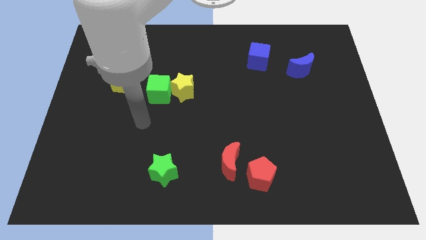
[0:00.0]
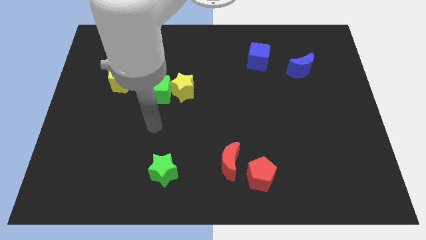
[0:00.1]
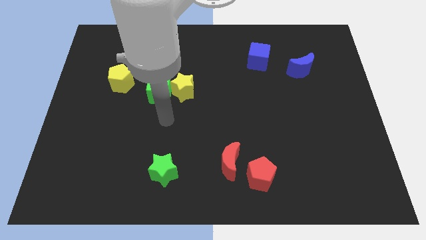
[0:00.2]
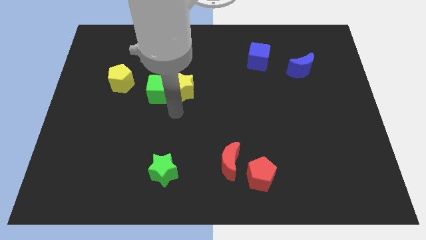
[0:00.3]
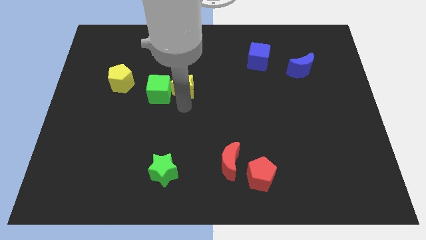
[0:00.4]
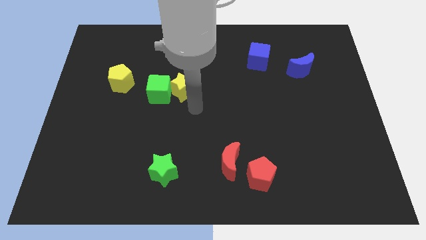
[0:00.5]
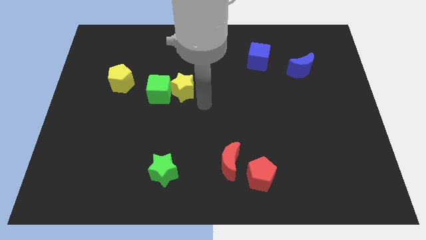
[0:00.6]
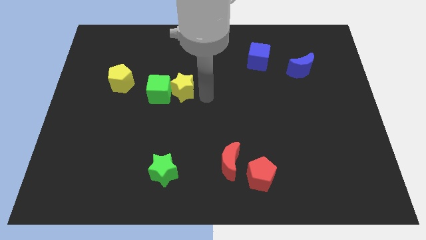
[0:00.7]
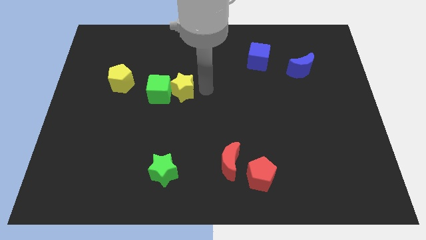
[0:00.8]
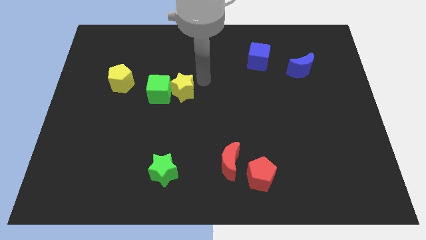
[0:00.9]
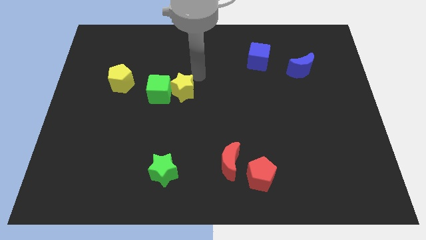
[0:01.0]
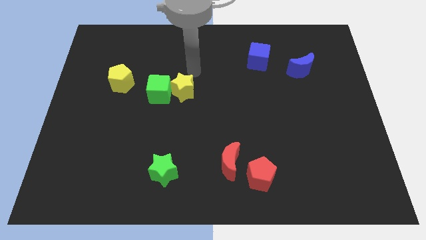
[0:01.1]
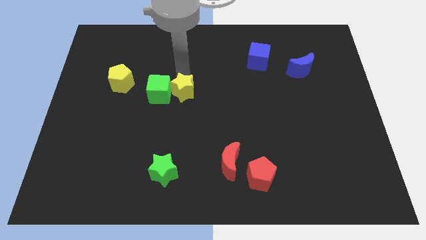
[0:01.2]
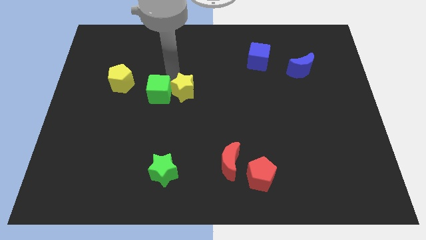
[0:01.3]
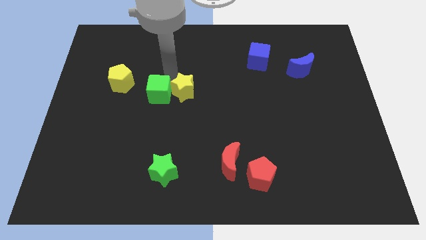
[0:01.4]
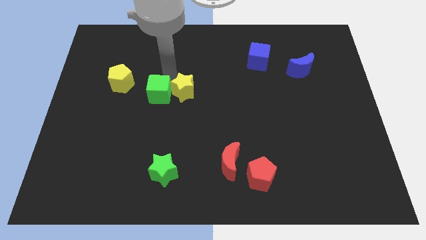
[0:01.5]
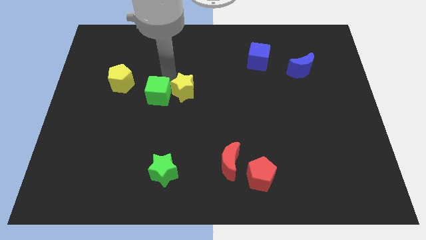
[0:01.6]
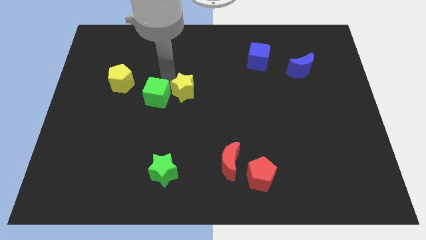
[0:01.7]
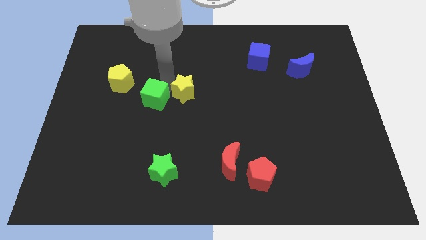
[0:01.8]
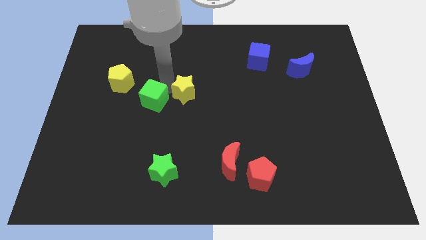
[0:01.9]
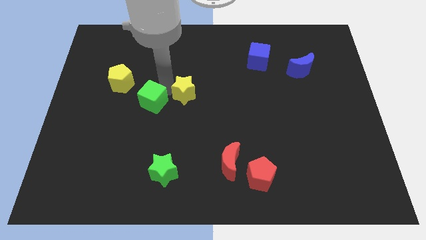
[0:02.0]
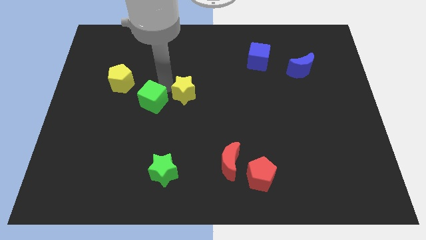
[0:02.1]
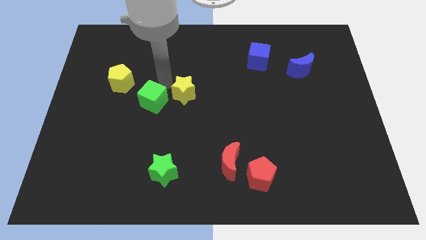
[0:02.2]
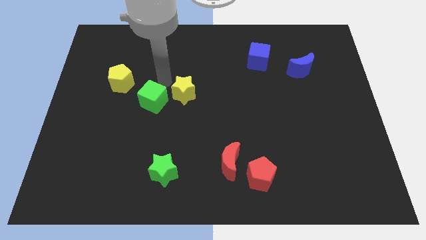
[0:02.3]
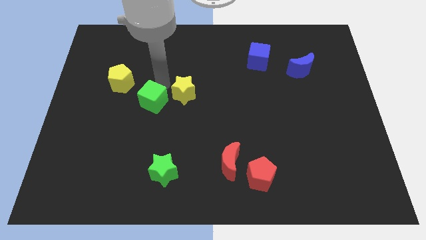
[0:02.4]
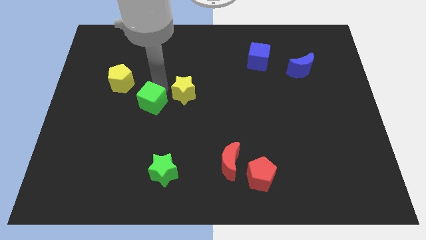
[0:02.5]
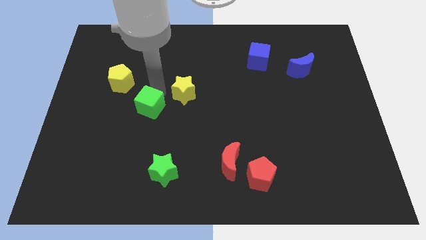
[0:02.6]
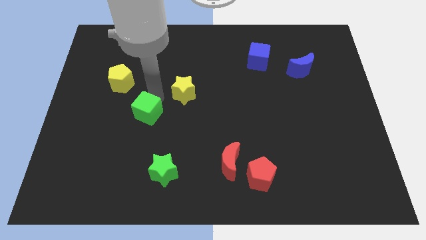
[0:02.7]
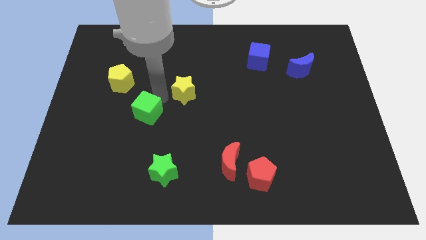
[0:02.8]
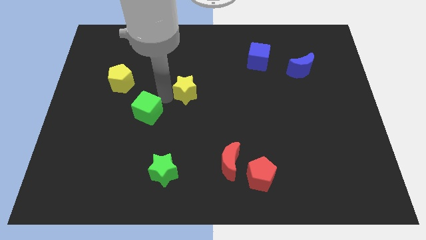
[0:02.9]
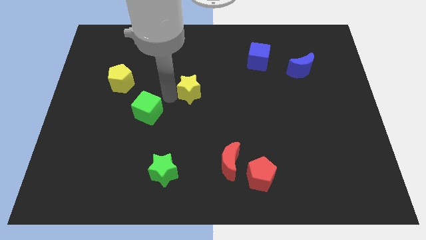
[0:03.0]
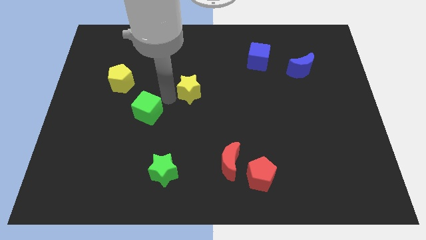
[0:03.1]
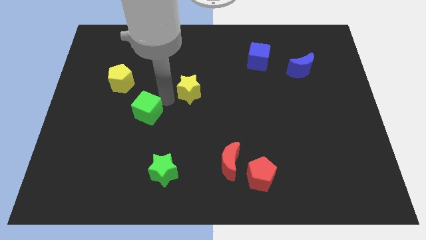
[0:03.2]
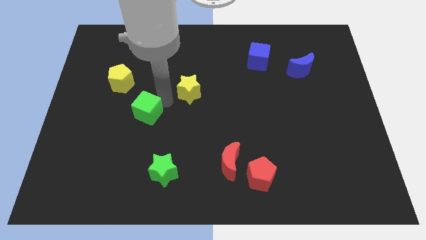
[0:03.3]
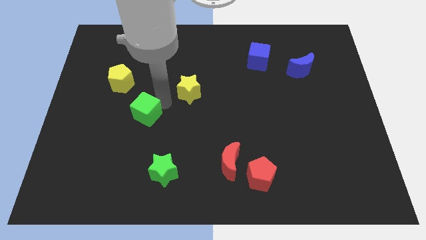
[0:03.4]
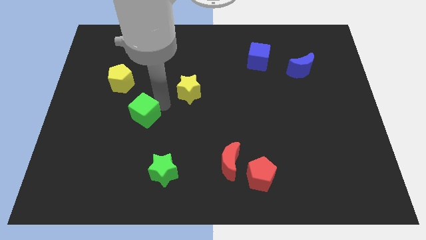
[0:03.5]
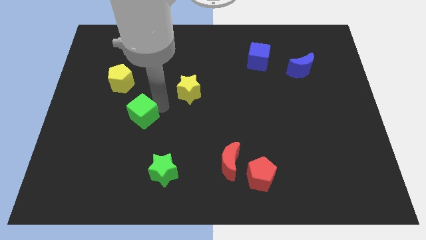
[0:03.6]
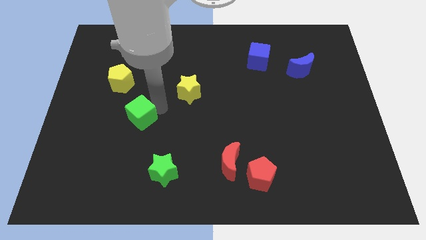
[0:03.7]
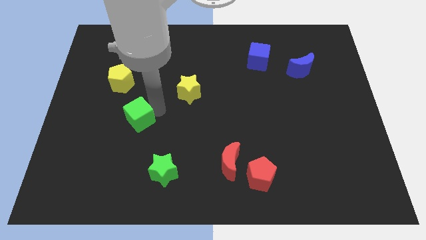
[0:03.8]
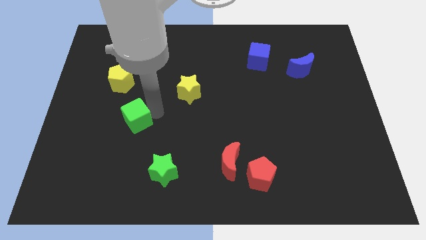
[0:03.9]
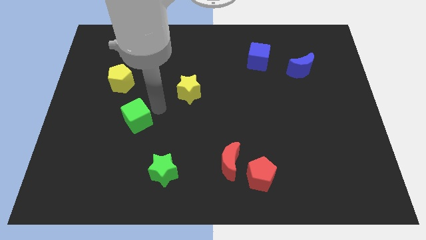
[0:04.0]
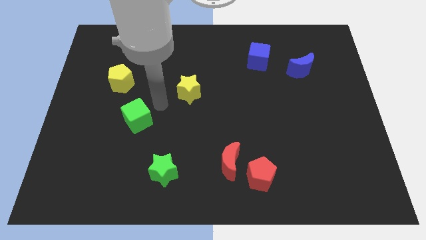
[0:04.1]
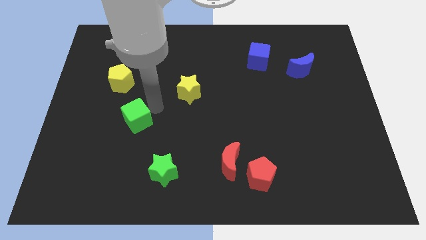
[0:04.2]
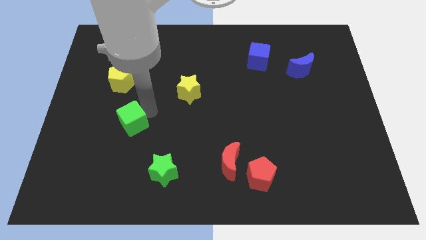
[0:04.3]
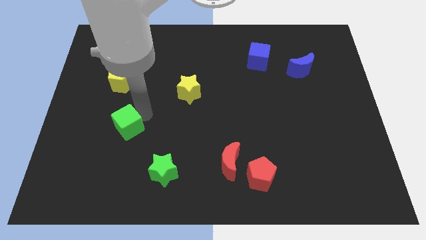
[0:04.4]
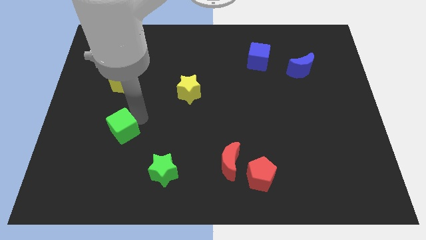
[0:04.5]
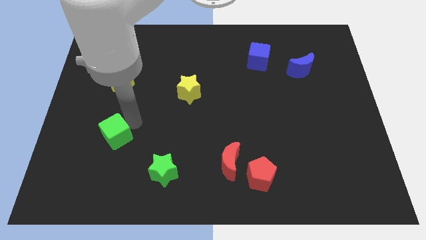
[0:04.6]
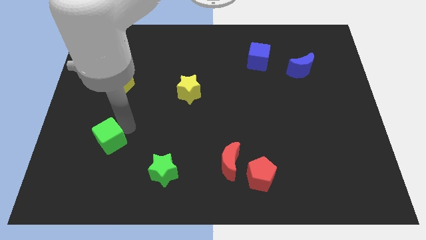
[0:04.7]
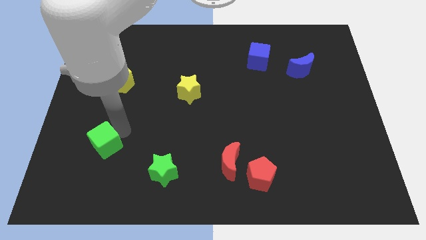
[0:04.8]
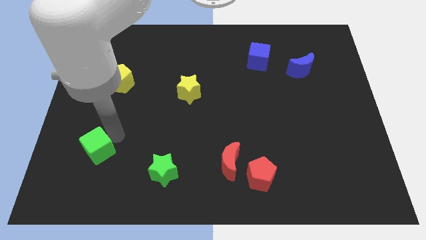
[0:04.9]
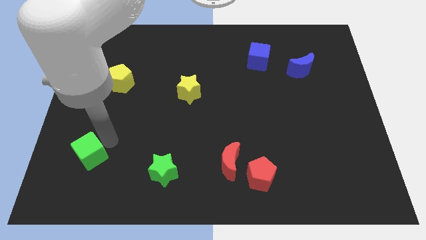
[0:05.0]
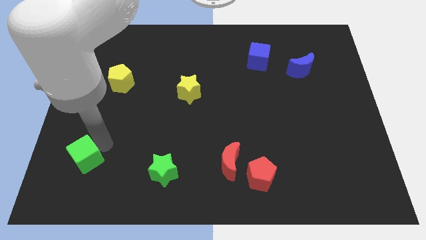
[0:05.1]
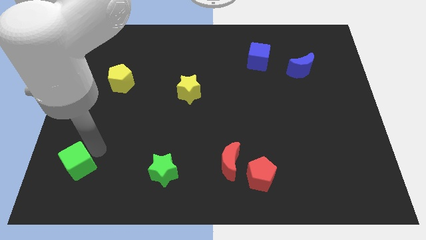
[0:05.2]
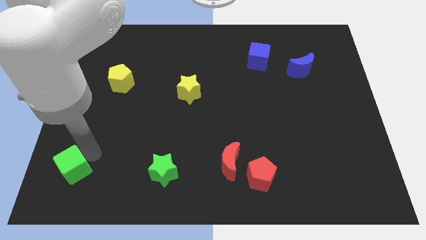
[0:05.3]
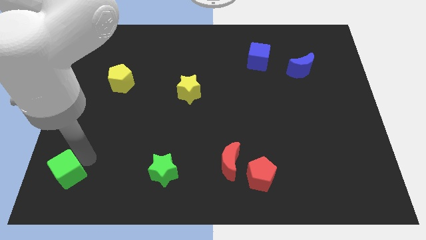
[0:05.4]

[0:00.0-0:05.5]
push the green cube to the bottom left corner
